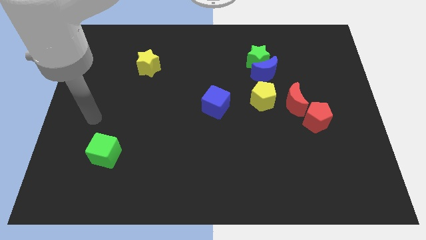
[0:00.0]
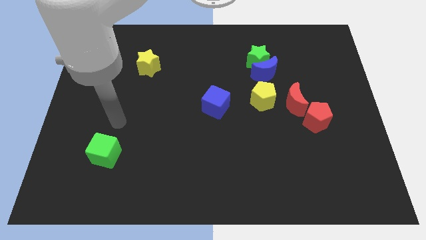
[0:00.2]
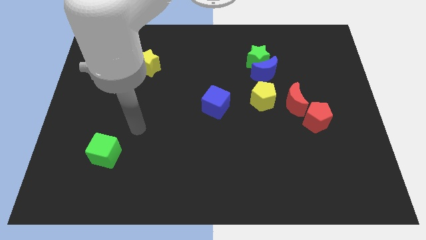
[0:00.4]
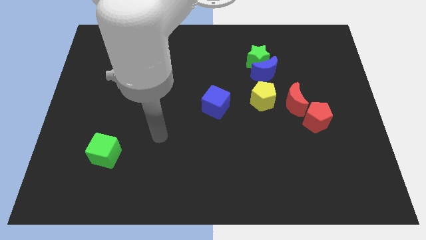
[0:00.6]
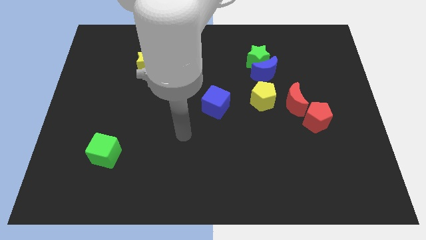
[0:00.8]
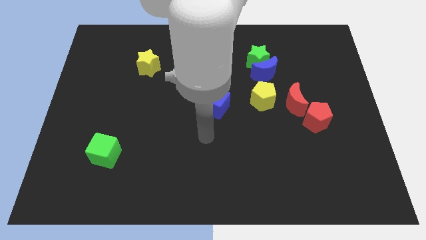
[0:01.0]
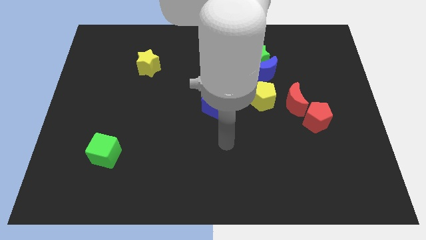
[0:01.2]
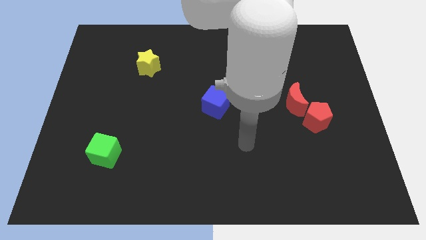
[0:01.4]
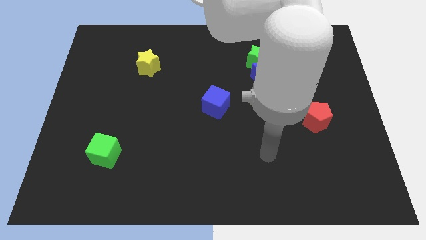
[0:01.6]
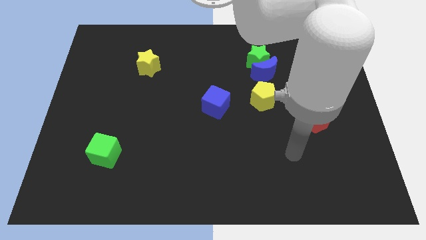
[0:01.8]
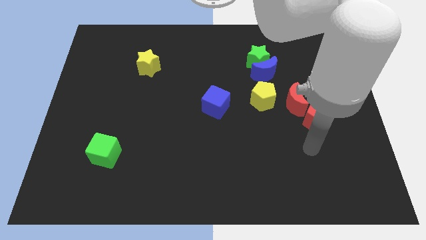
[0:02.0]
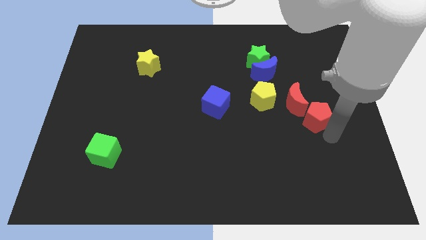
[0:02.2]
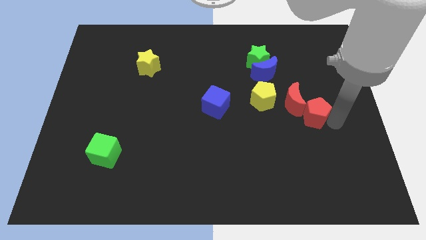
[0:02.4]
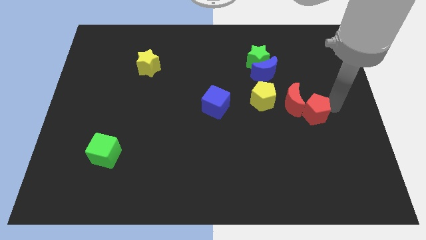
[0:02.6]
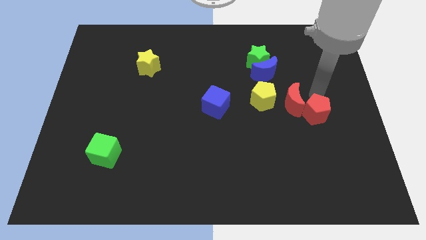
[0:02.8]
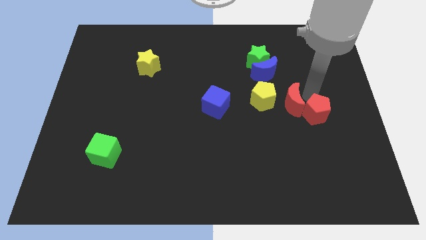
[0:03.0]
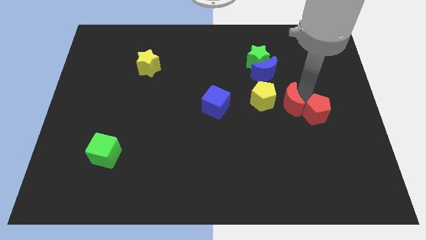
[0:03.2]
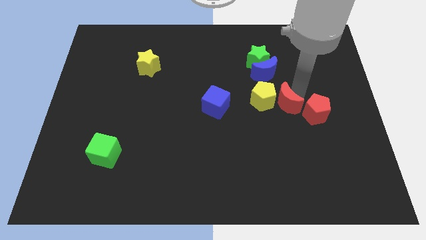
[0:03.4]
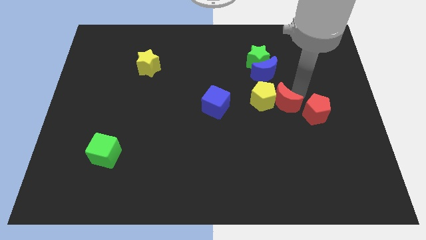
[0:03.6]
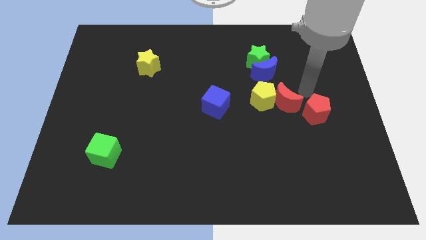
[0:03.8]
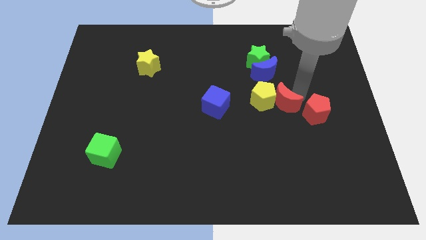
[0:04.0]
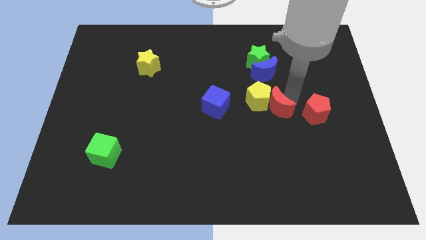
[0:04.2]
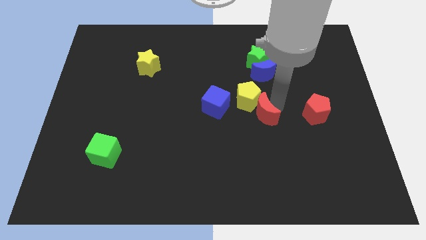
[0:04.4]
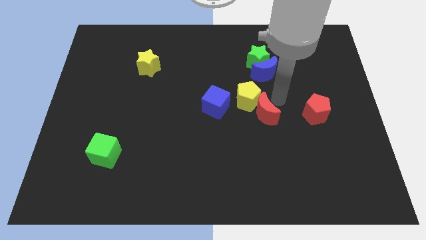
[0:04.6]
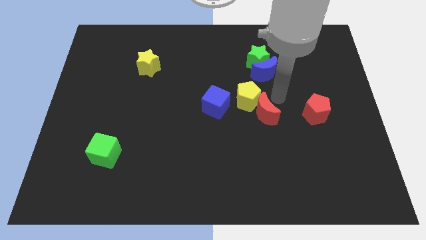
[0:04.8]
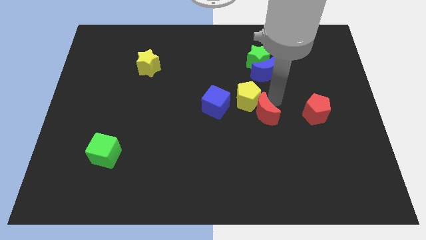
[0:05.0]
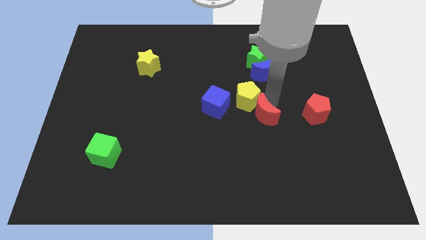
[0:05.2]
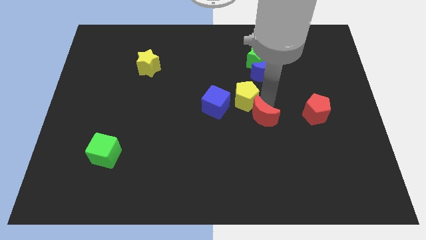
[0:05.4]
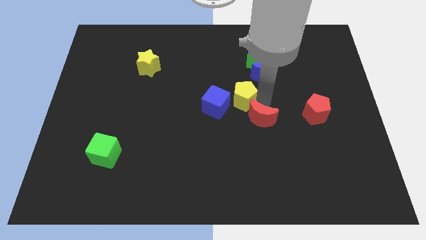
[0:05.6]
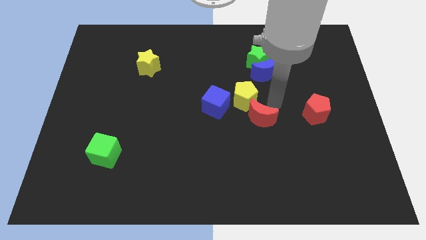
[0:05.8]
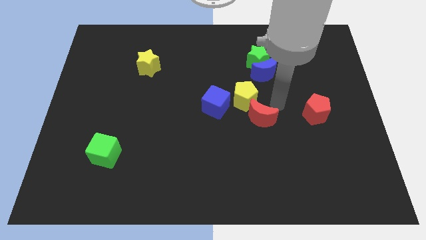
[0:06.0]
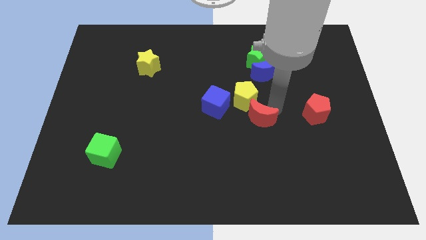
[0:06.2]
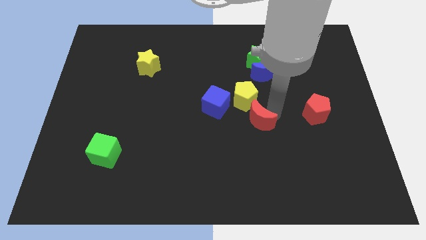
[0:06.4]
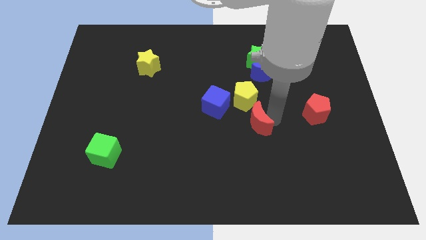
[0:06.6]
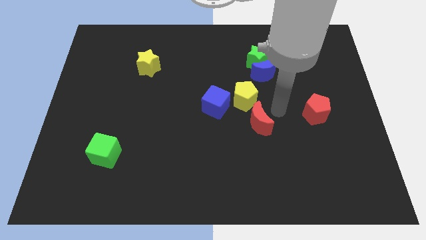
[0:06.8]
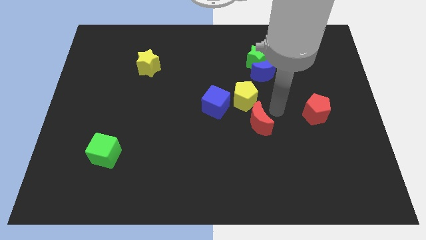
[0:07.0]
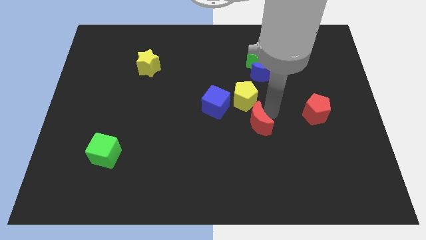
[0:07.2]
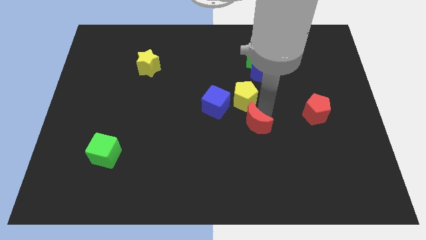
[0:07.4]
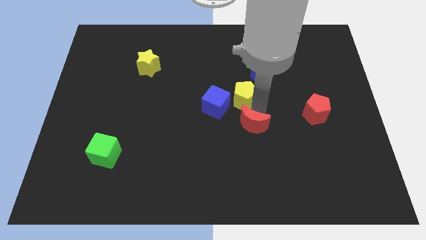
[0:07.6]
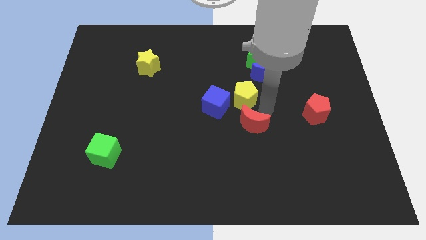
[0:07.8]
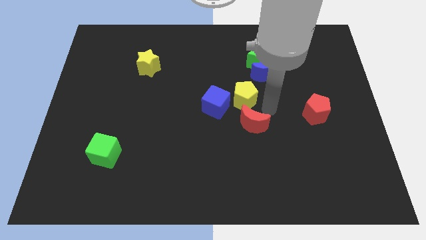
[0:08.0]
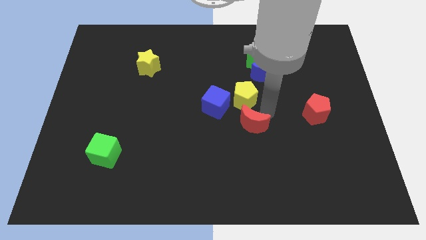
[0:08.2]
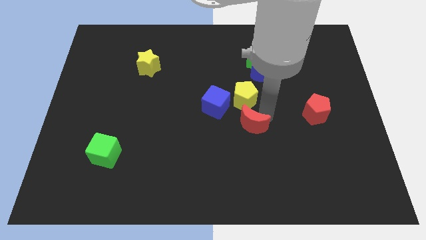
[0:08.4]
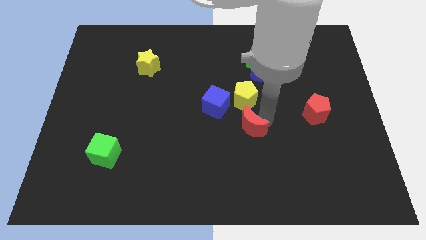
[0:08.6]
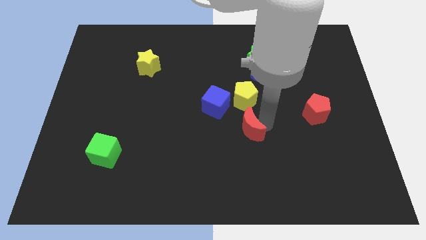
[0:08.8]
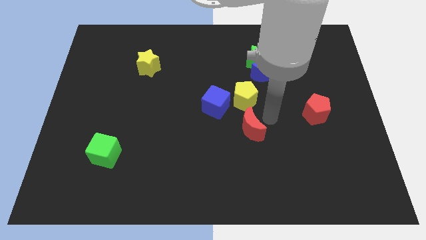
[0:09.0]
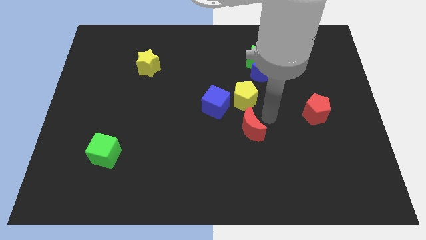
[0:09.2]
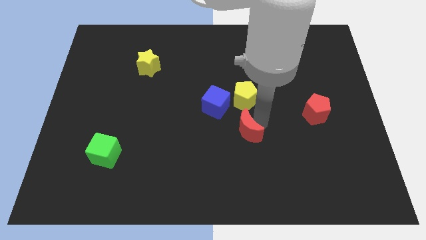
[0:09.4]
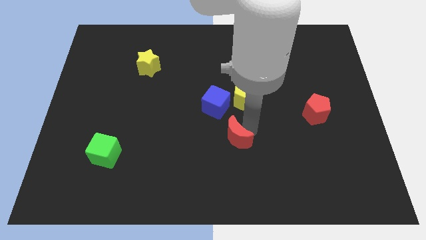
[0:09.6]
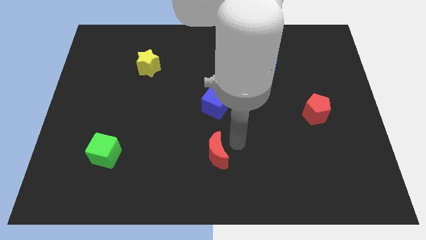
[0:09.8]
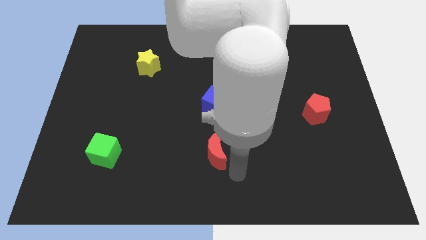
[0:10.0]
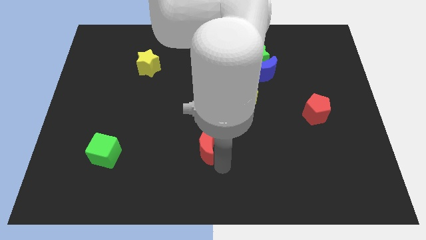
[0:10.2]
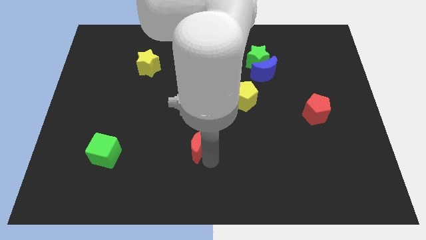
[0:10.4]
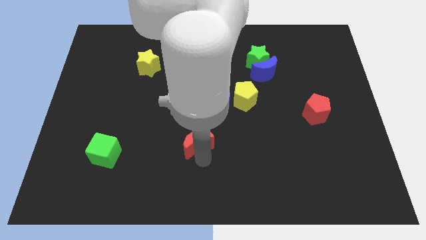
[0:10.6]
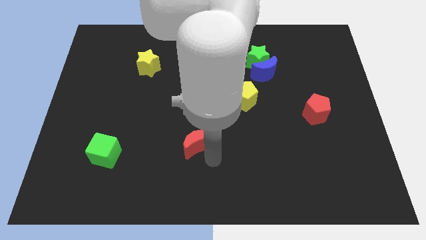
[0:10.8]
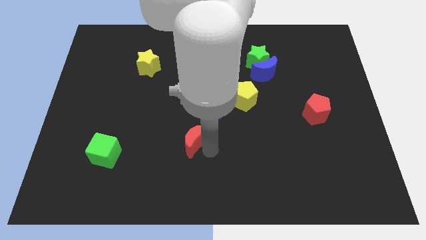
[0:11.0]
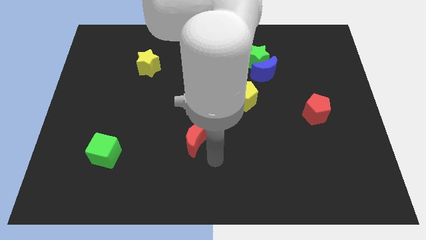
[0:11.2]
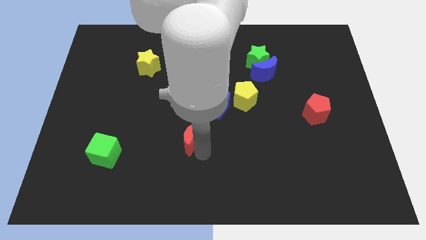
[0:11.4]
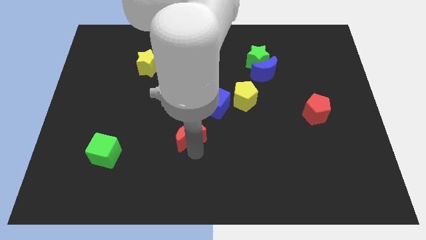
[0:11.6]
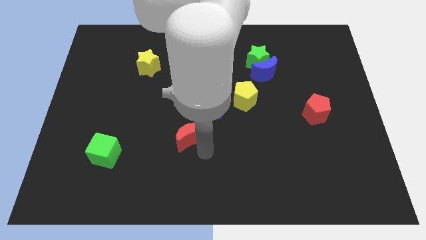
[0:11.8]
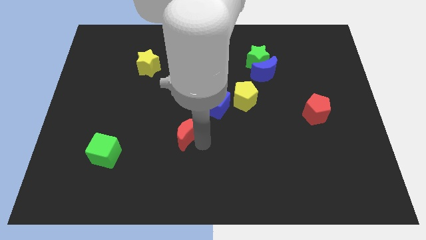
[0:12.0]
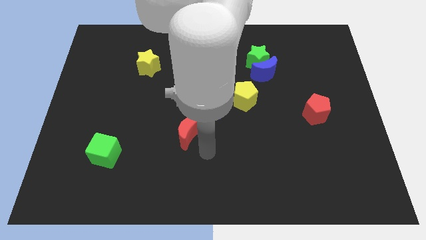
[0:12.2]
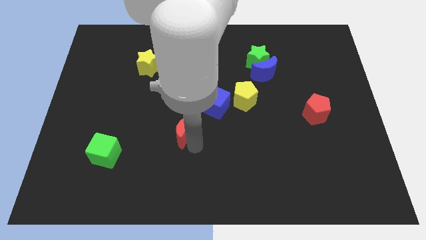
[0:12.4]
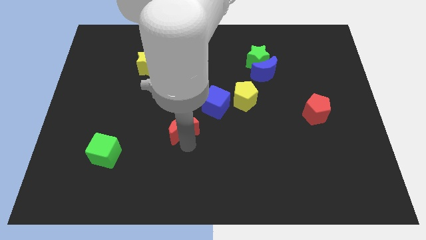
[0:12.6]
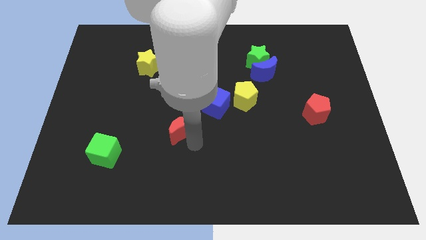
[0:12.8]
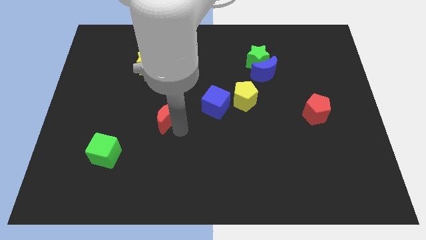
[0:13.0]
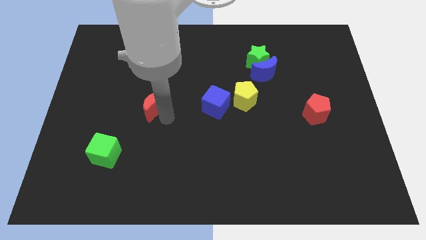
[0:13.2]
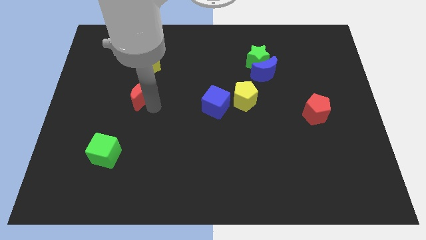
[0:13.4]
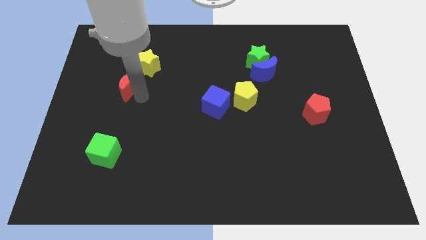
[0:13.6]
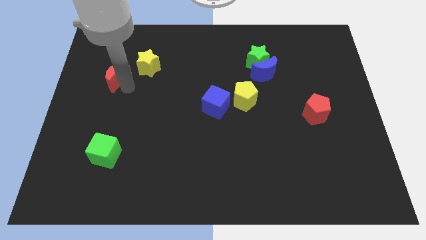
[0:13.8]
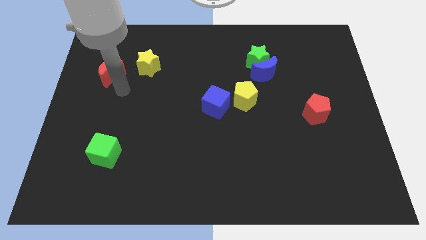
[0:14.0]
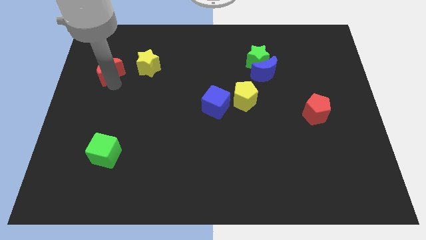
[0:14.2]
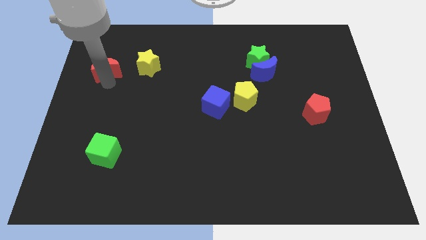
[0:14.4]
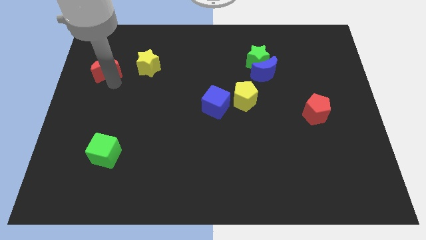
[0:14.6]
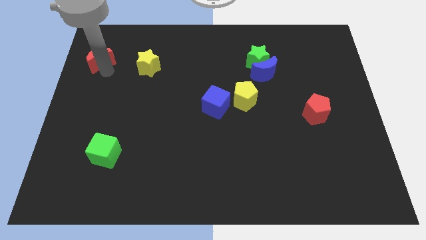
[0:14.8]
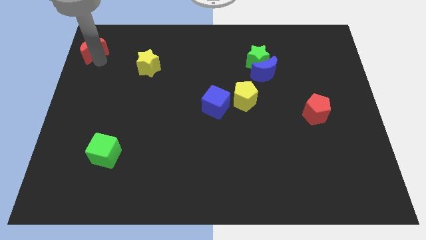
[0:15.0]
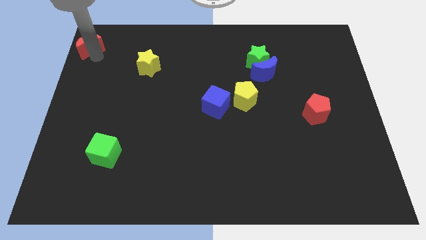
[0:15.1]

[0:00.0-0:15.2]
push the red moon to the upper left corner
